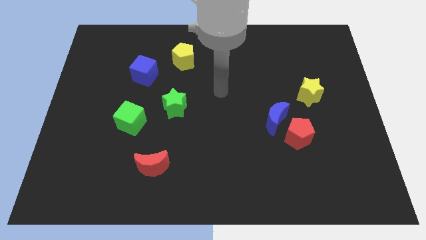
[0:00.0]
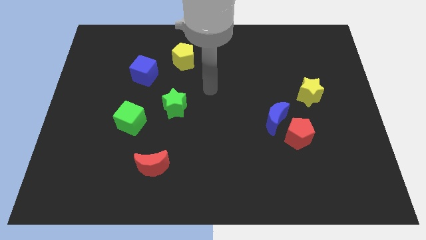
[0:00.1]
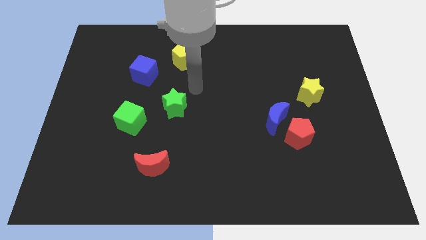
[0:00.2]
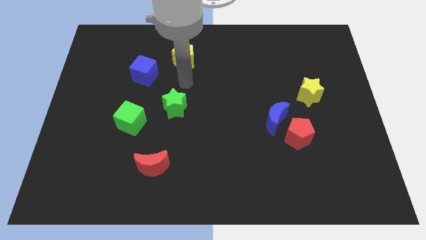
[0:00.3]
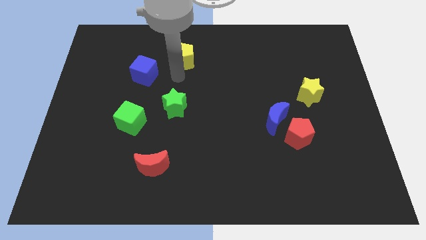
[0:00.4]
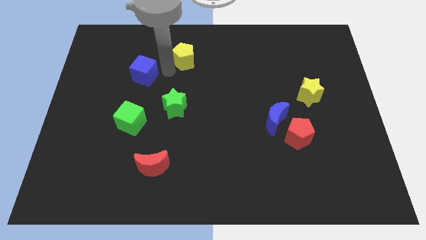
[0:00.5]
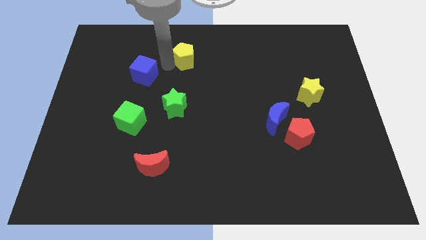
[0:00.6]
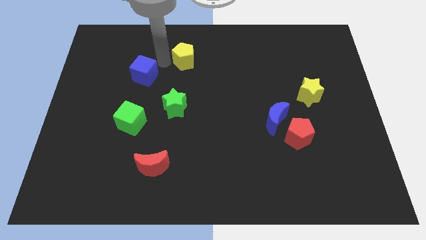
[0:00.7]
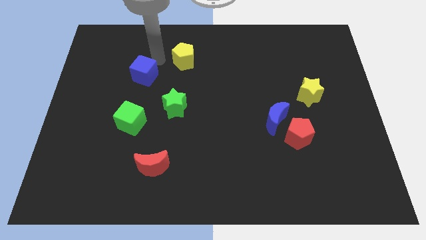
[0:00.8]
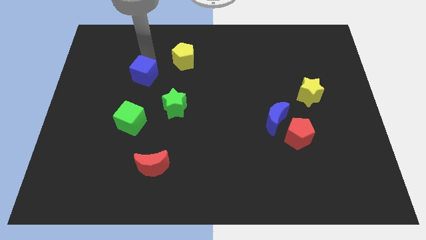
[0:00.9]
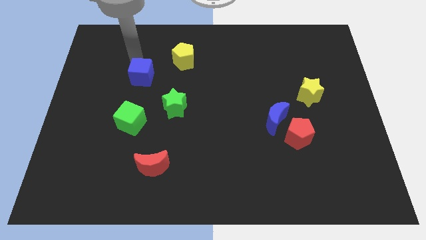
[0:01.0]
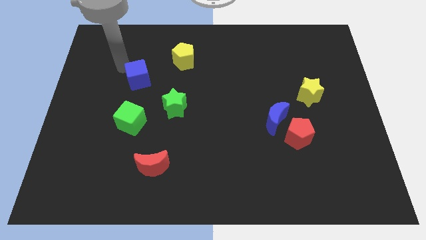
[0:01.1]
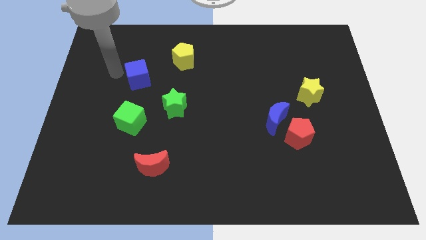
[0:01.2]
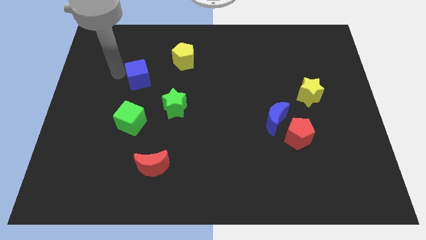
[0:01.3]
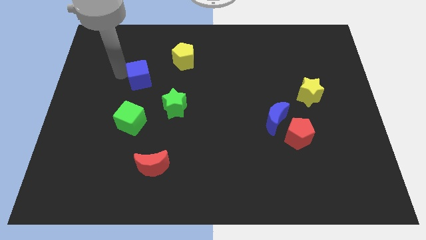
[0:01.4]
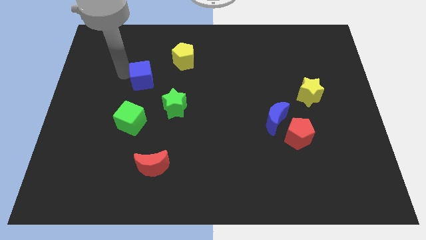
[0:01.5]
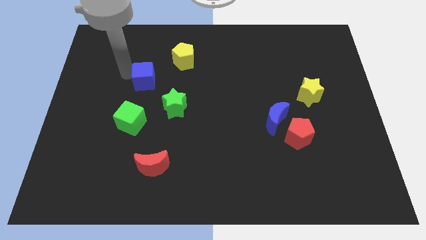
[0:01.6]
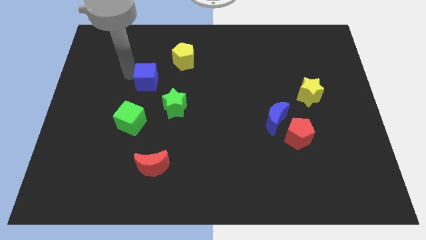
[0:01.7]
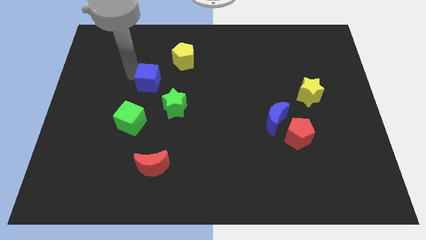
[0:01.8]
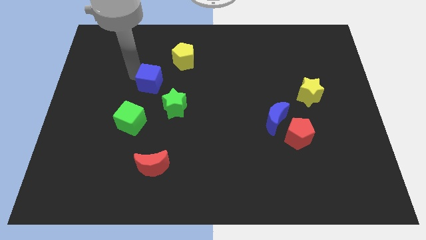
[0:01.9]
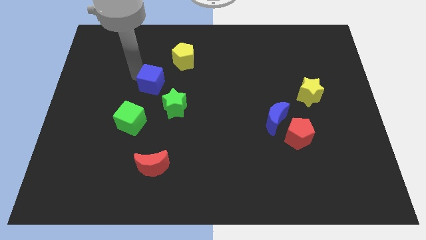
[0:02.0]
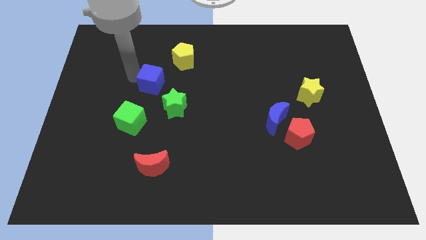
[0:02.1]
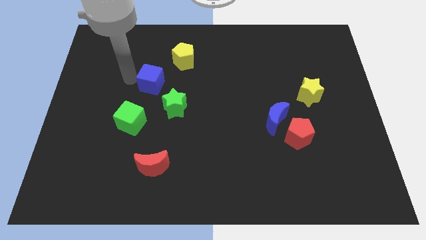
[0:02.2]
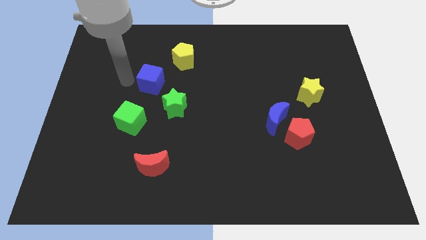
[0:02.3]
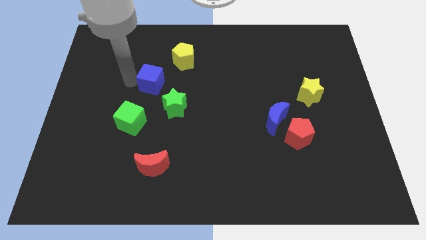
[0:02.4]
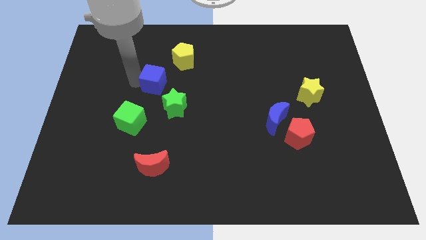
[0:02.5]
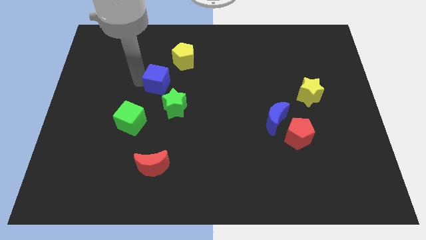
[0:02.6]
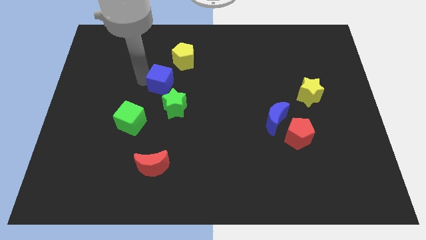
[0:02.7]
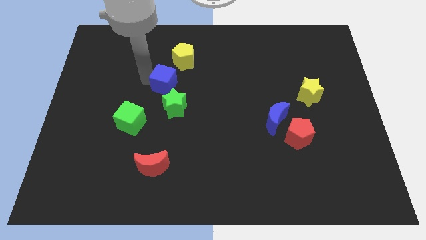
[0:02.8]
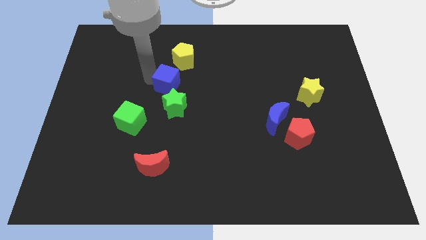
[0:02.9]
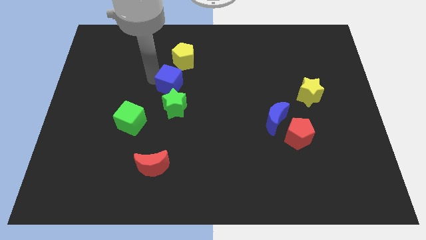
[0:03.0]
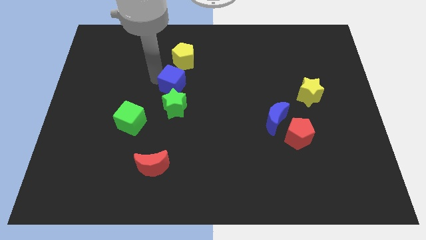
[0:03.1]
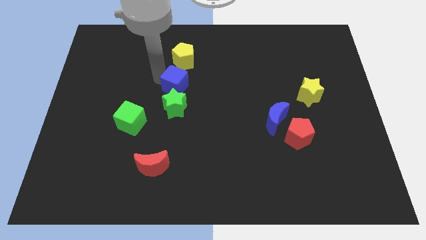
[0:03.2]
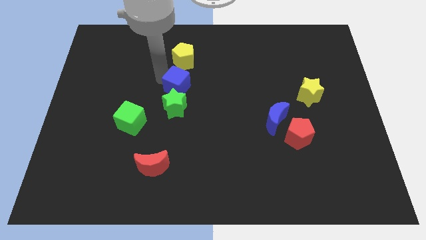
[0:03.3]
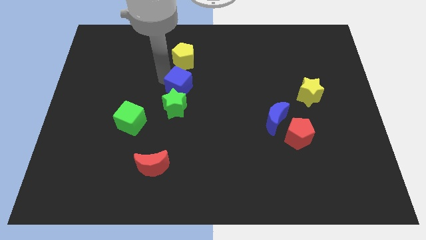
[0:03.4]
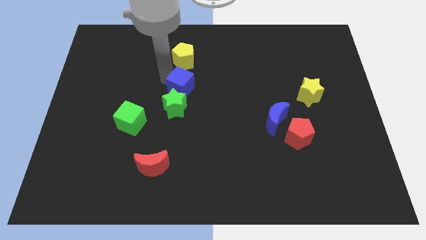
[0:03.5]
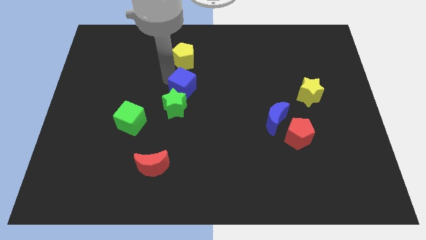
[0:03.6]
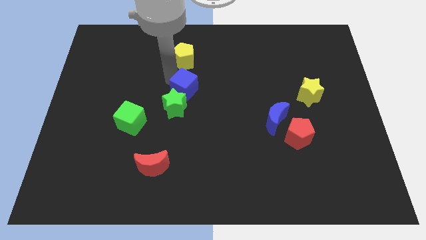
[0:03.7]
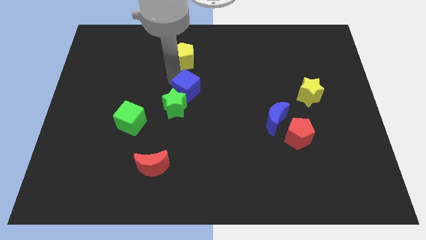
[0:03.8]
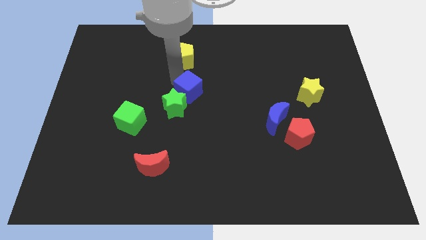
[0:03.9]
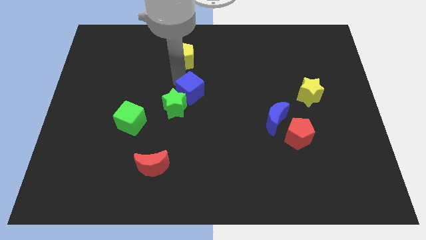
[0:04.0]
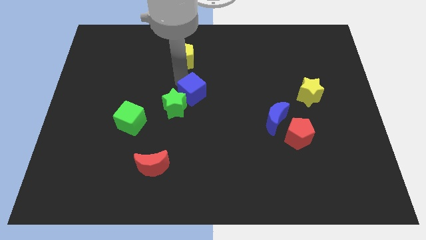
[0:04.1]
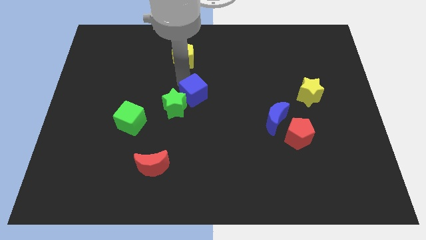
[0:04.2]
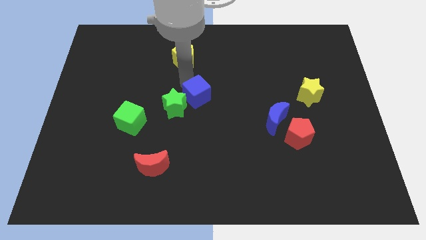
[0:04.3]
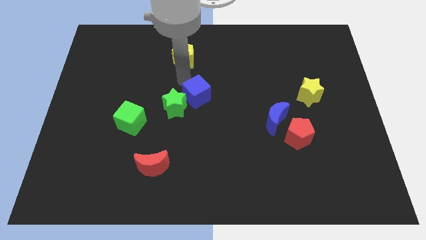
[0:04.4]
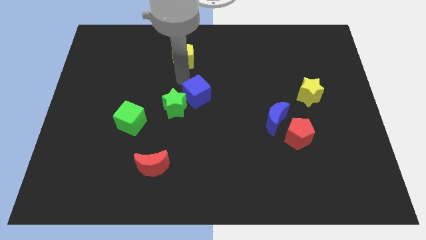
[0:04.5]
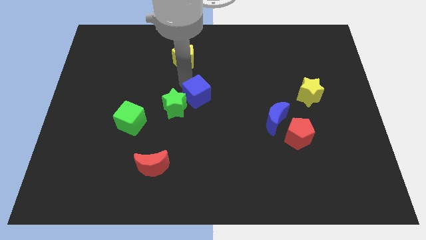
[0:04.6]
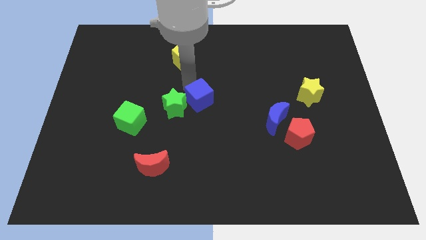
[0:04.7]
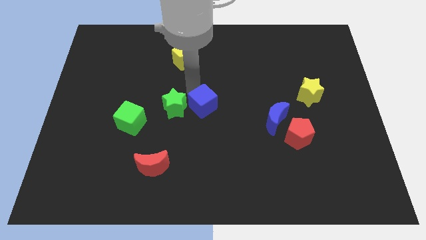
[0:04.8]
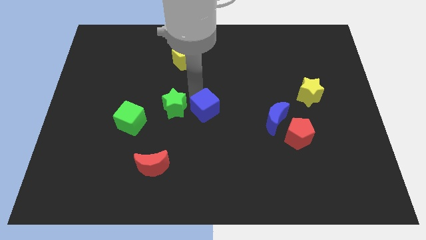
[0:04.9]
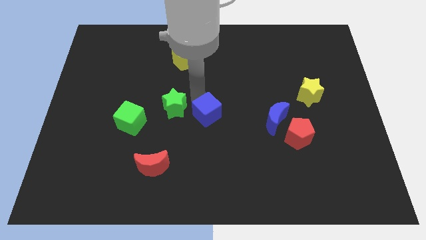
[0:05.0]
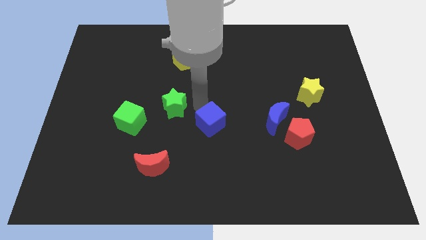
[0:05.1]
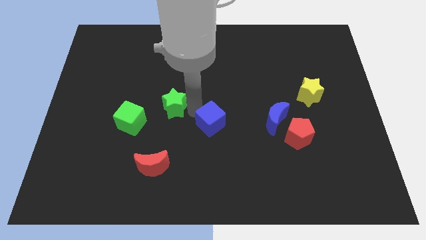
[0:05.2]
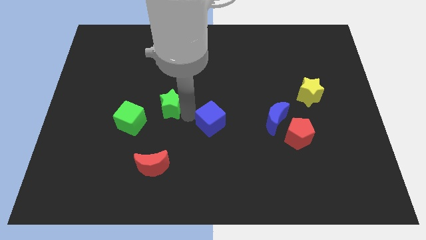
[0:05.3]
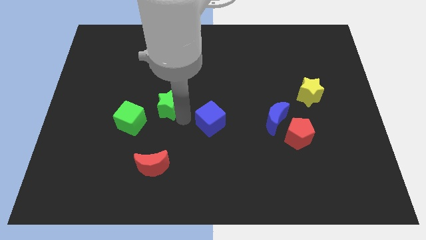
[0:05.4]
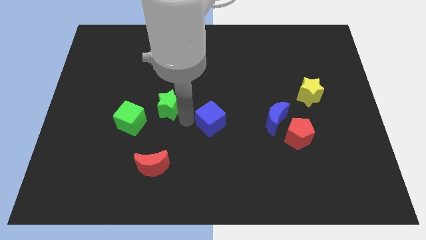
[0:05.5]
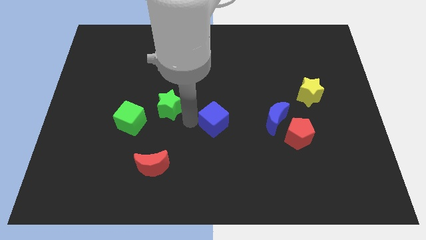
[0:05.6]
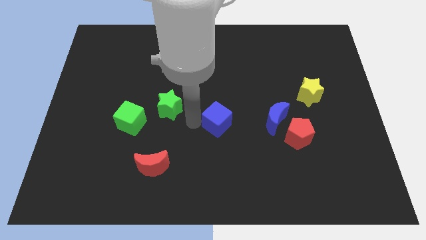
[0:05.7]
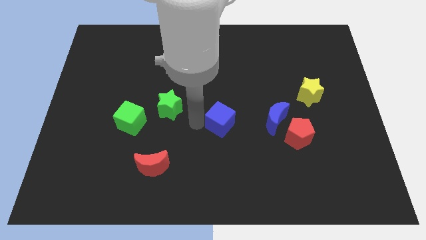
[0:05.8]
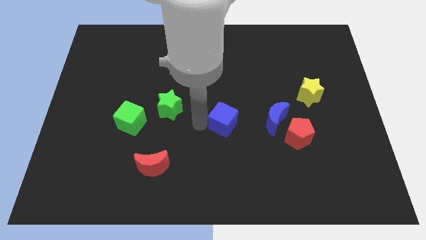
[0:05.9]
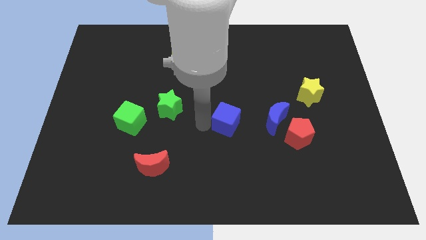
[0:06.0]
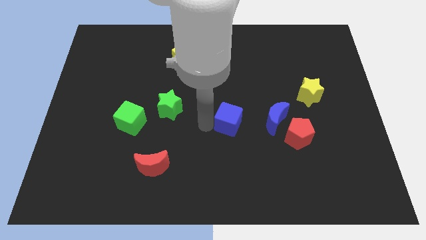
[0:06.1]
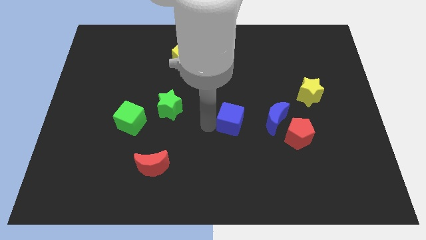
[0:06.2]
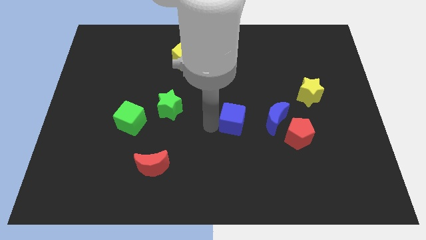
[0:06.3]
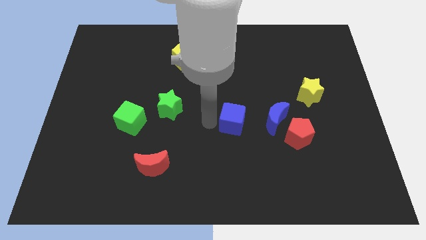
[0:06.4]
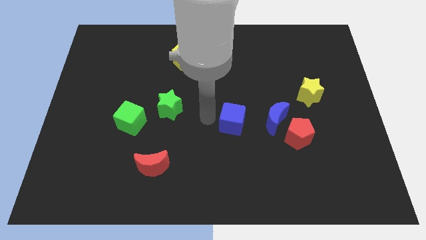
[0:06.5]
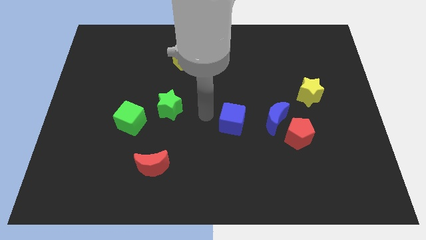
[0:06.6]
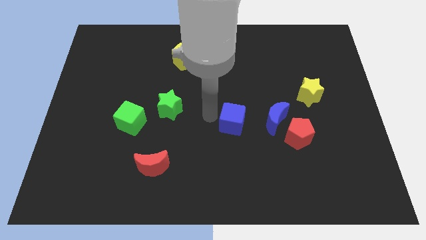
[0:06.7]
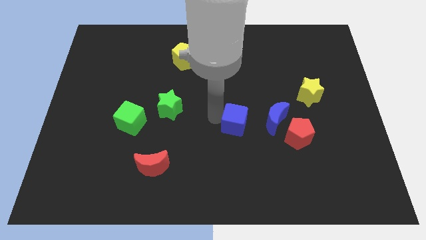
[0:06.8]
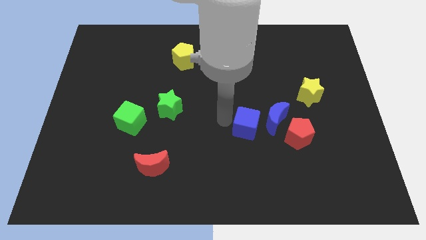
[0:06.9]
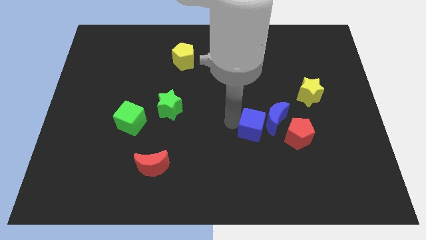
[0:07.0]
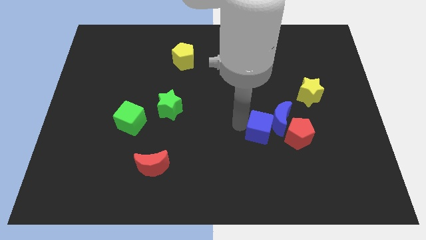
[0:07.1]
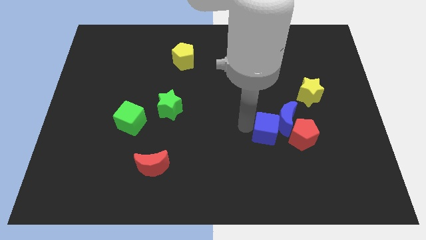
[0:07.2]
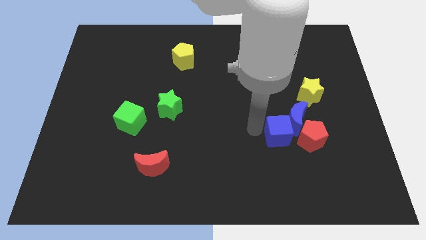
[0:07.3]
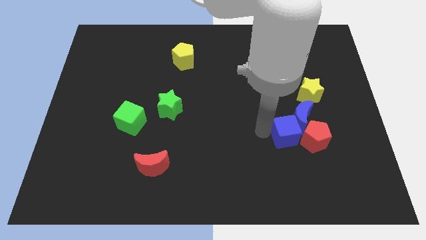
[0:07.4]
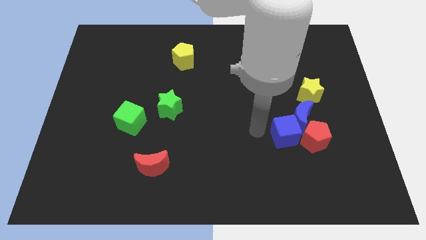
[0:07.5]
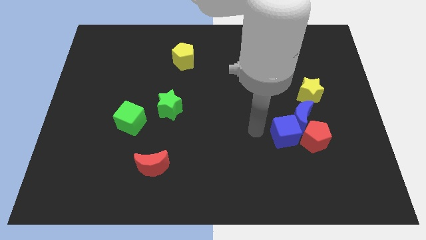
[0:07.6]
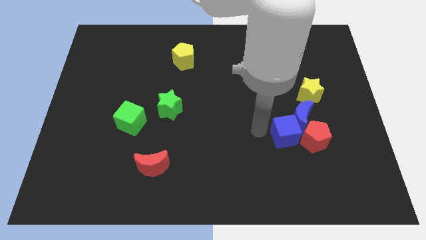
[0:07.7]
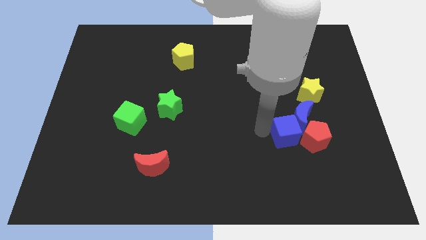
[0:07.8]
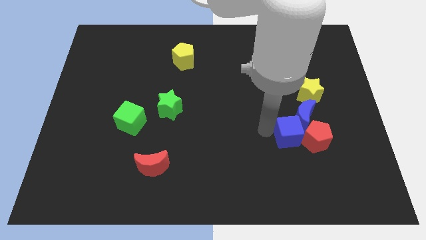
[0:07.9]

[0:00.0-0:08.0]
put the blue cube next to the red pentagon
